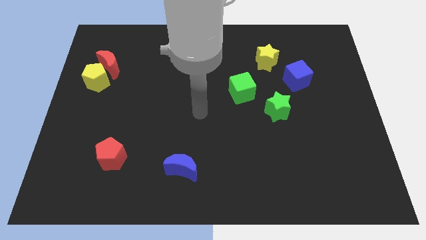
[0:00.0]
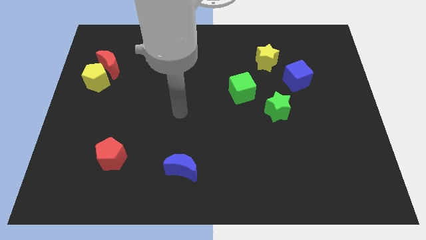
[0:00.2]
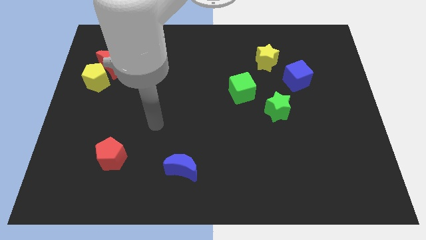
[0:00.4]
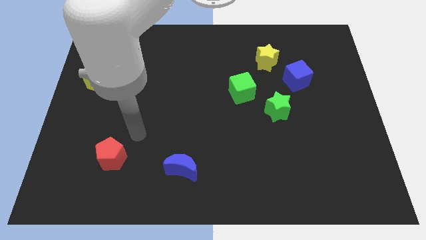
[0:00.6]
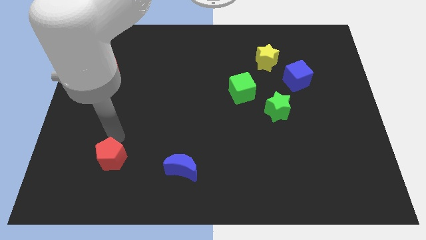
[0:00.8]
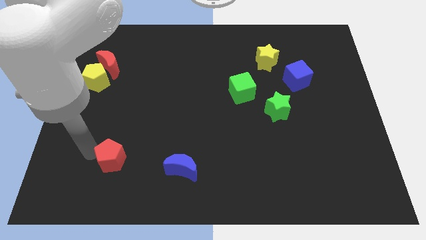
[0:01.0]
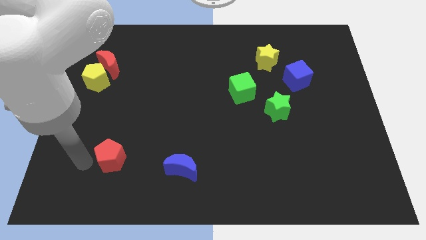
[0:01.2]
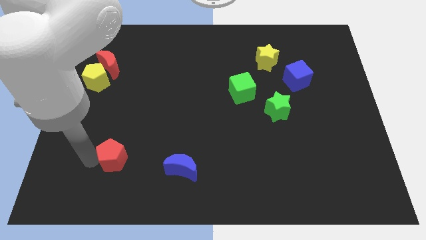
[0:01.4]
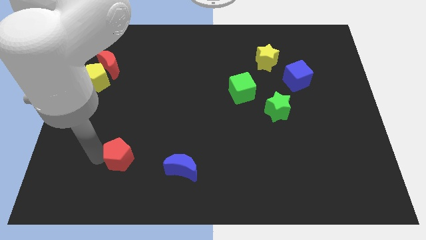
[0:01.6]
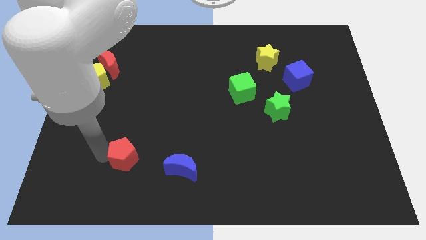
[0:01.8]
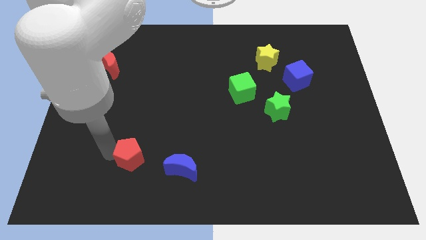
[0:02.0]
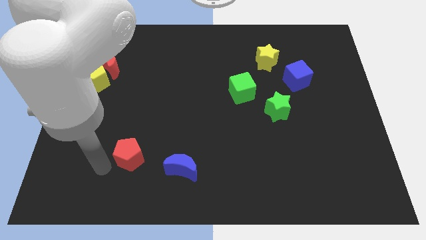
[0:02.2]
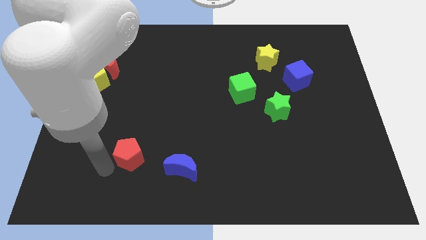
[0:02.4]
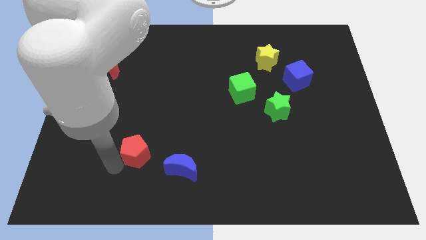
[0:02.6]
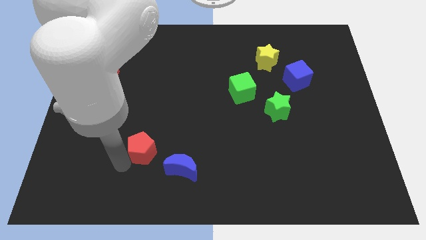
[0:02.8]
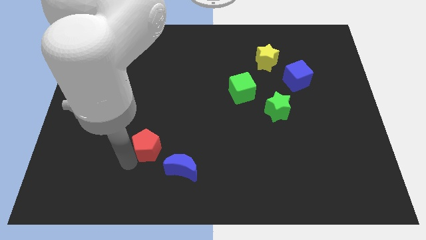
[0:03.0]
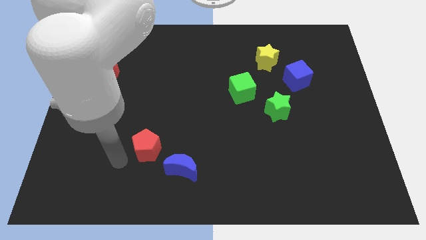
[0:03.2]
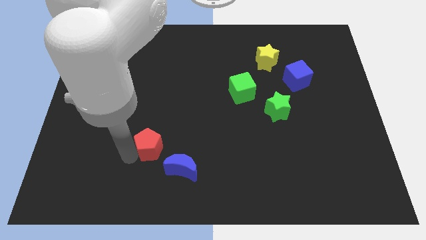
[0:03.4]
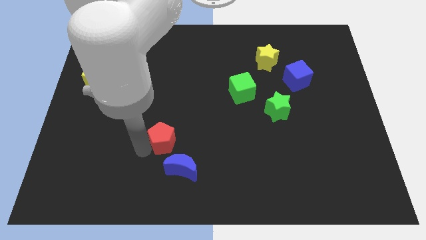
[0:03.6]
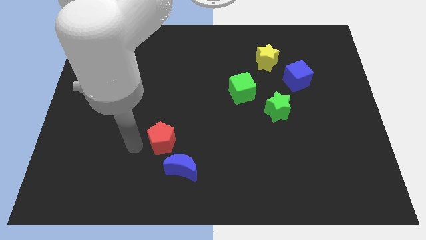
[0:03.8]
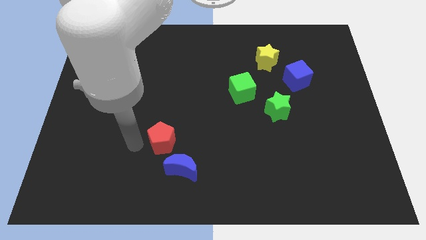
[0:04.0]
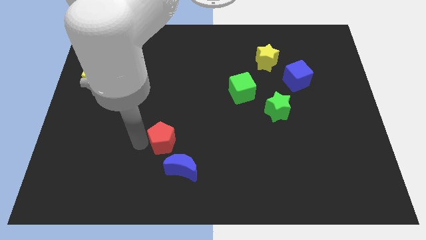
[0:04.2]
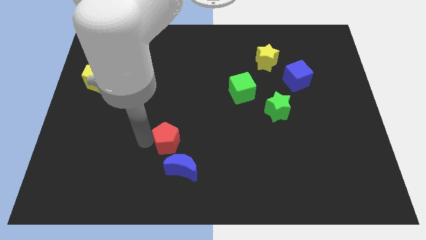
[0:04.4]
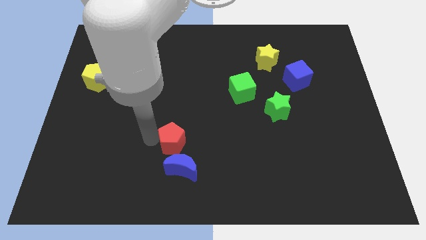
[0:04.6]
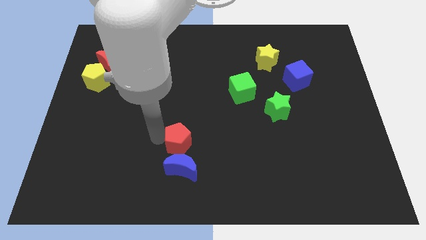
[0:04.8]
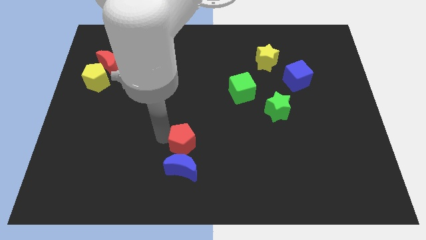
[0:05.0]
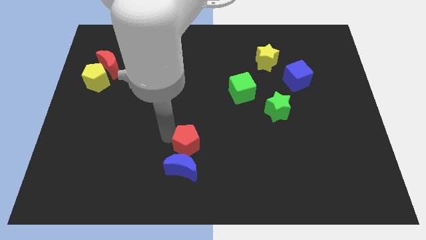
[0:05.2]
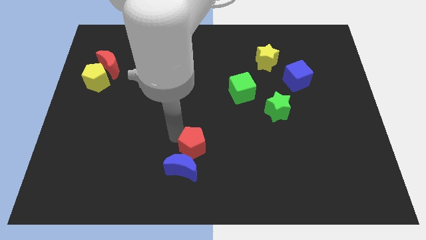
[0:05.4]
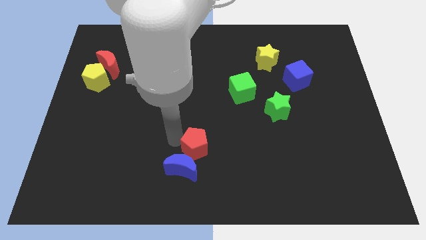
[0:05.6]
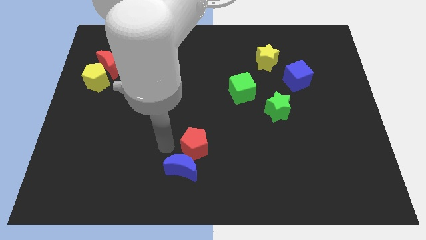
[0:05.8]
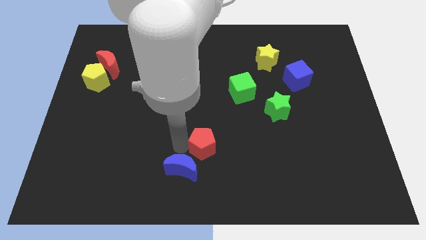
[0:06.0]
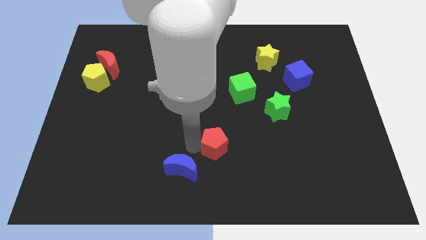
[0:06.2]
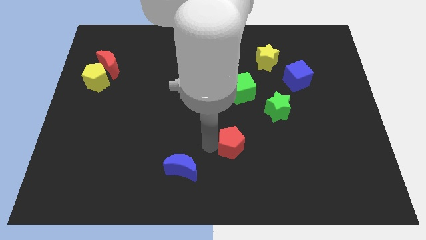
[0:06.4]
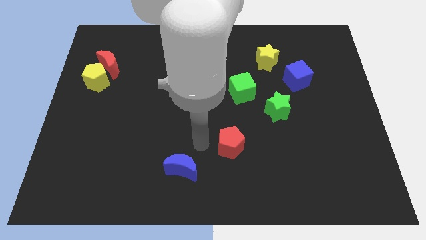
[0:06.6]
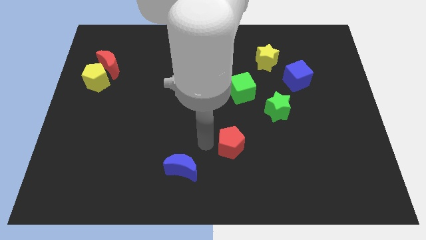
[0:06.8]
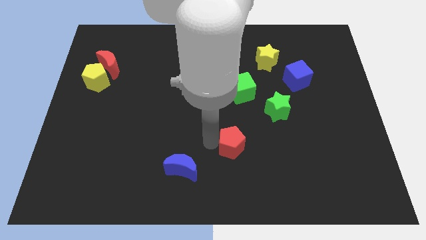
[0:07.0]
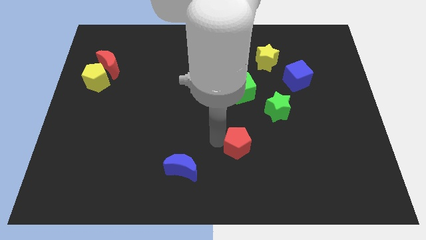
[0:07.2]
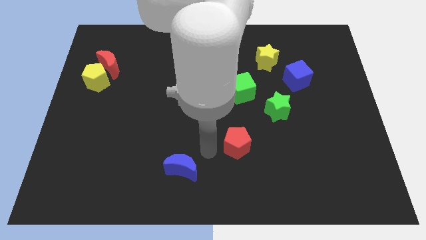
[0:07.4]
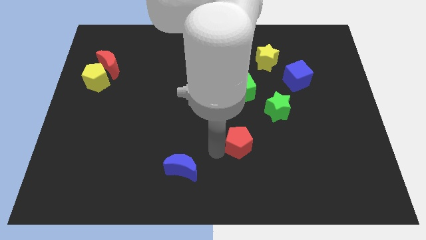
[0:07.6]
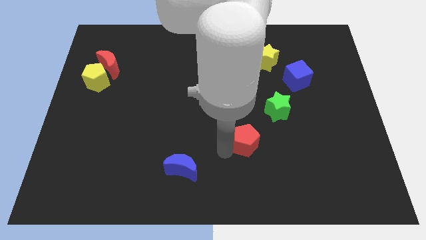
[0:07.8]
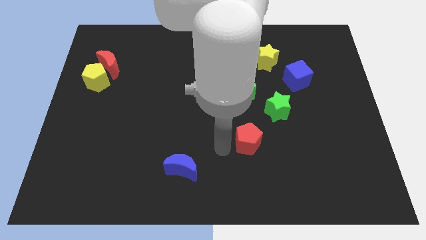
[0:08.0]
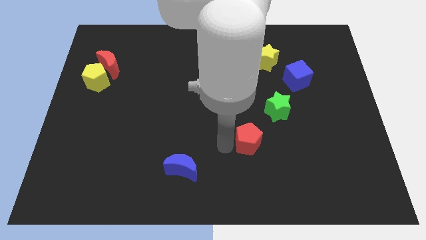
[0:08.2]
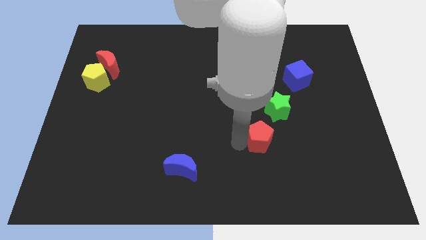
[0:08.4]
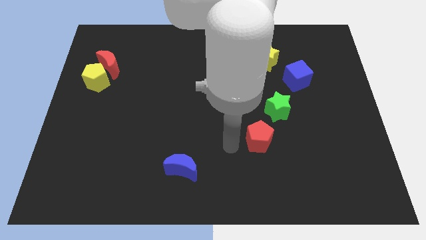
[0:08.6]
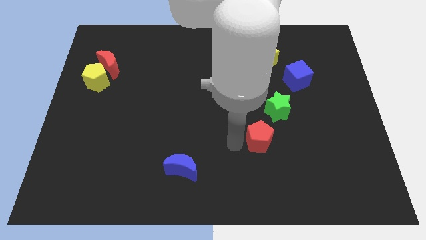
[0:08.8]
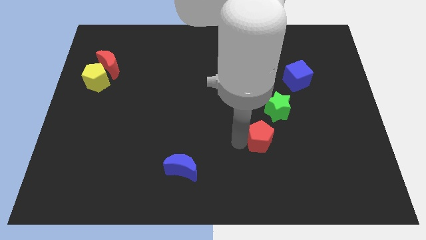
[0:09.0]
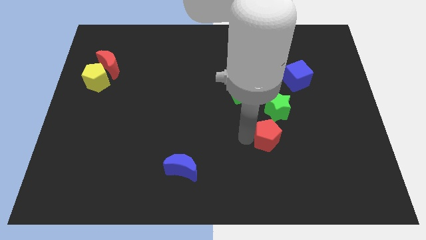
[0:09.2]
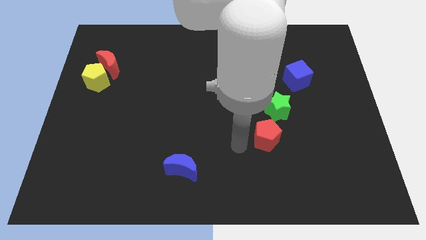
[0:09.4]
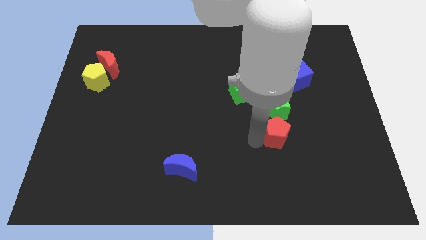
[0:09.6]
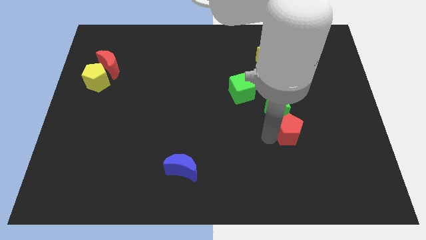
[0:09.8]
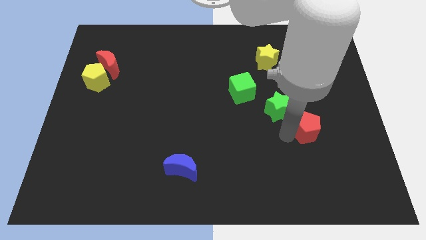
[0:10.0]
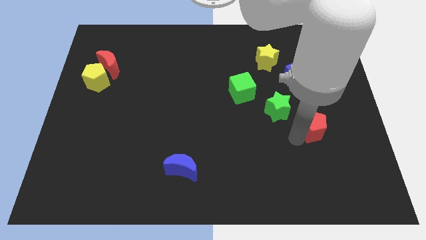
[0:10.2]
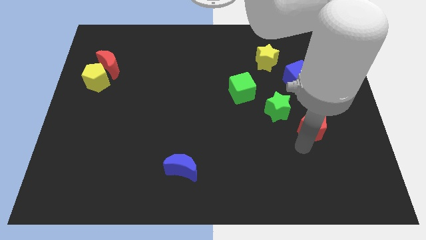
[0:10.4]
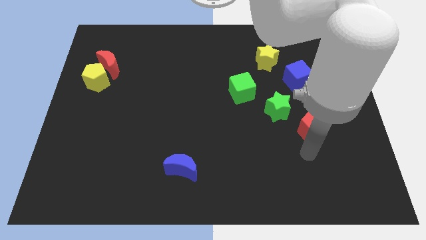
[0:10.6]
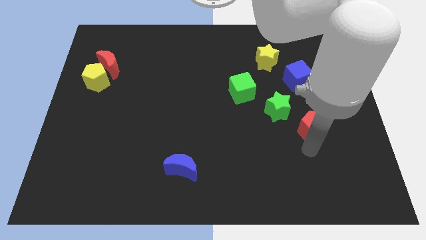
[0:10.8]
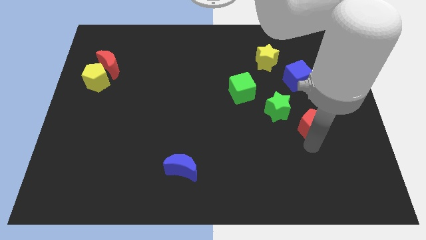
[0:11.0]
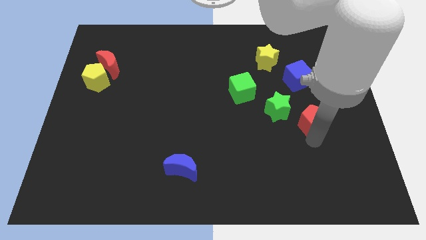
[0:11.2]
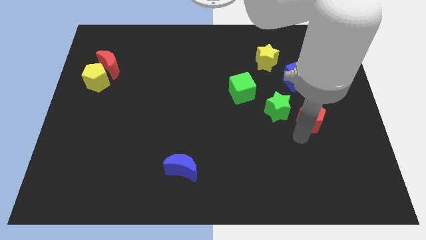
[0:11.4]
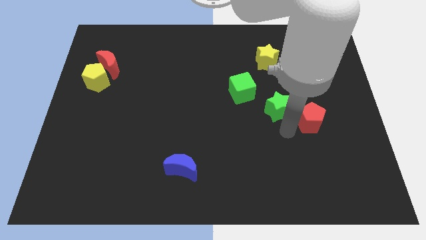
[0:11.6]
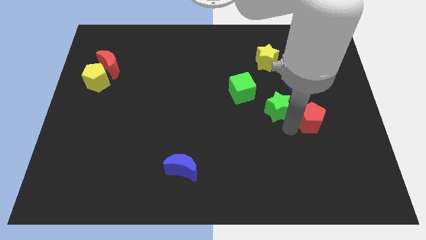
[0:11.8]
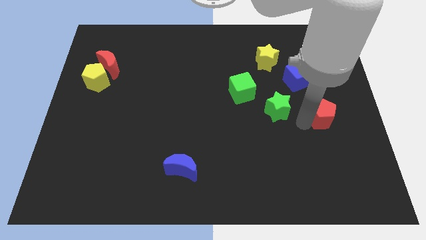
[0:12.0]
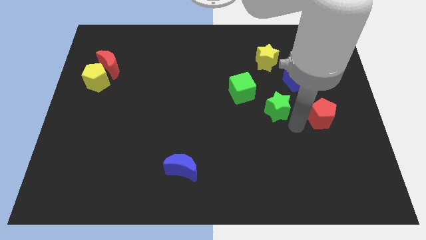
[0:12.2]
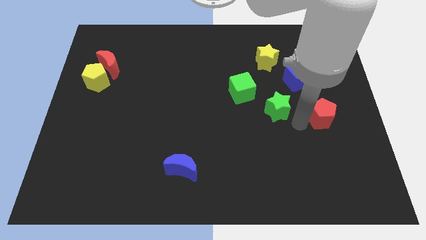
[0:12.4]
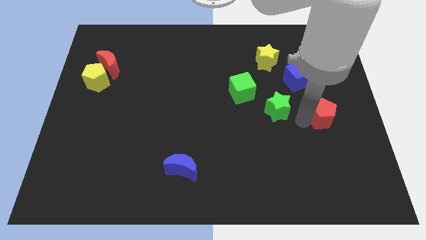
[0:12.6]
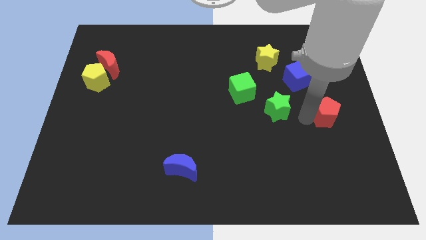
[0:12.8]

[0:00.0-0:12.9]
put the red pentagon to the right side of the board

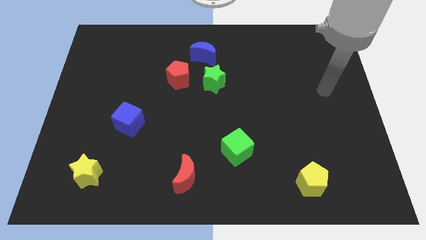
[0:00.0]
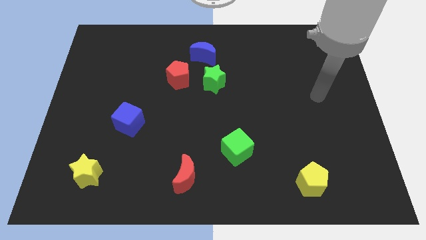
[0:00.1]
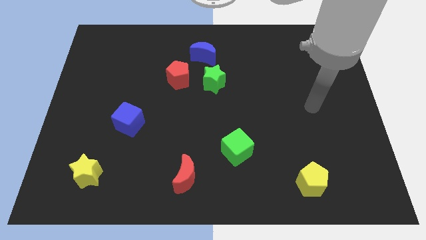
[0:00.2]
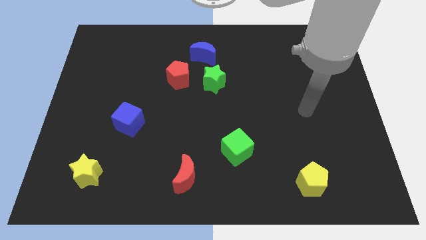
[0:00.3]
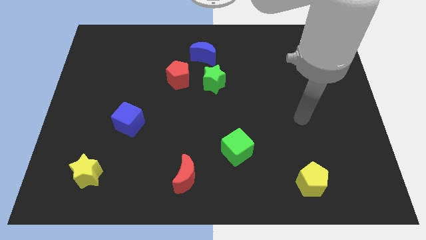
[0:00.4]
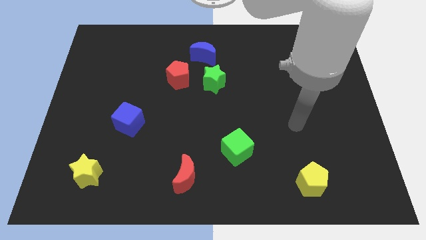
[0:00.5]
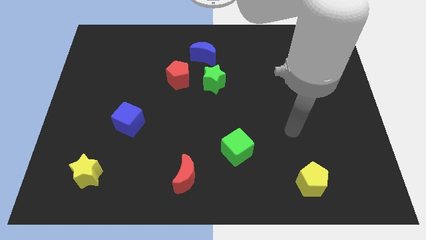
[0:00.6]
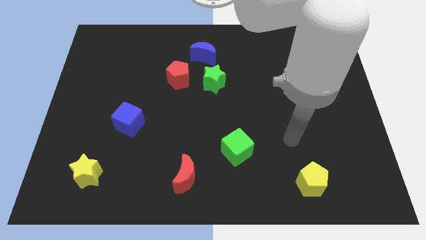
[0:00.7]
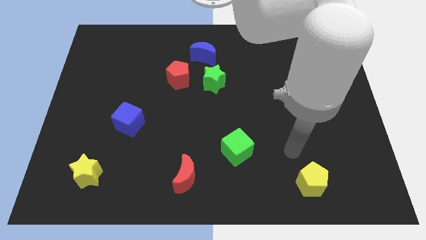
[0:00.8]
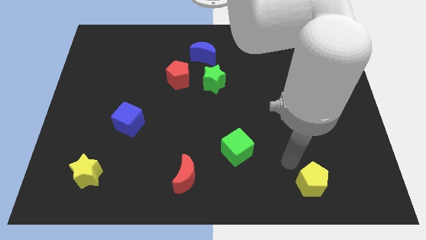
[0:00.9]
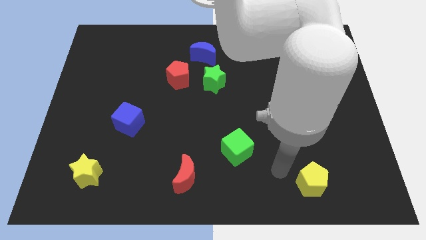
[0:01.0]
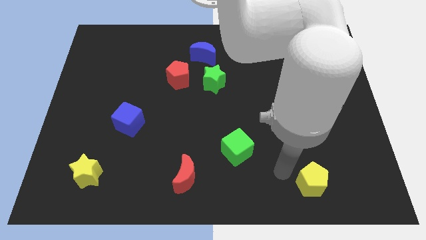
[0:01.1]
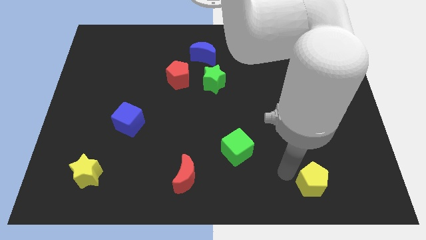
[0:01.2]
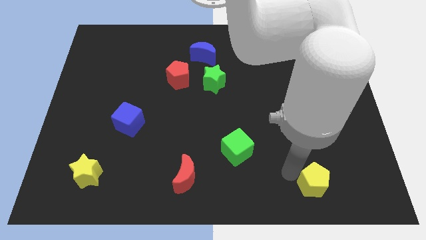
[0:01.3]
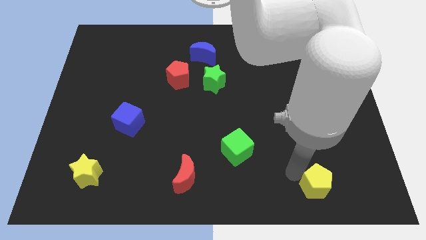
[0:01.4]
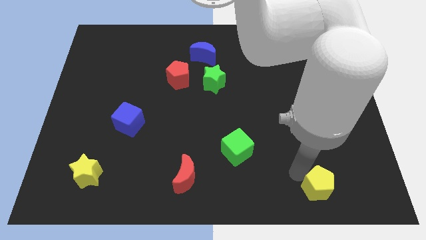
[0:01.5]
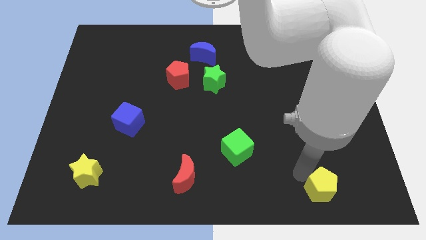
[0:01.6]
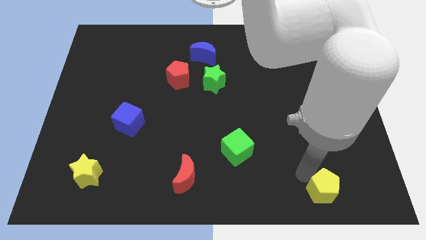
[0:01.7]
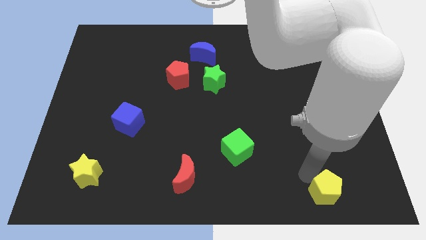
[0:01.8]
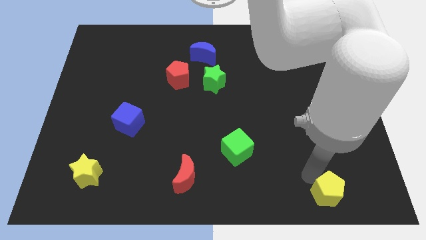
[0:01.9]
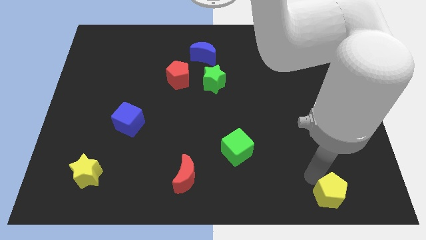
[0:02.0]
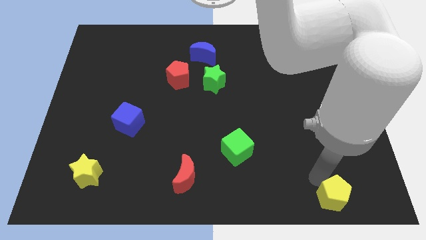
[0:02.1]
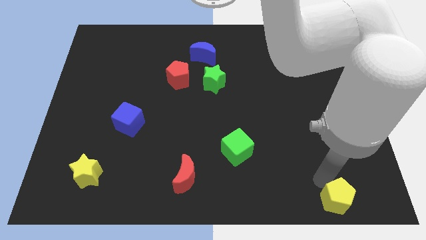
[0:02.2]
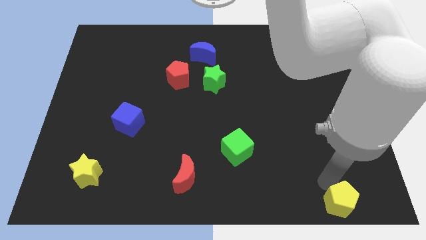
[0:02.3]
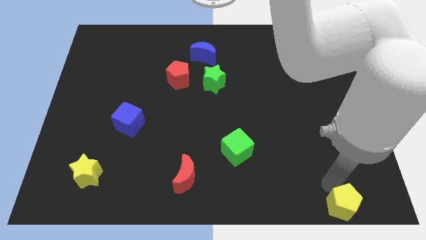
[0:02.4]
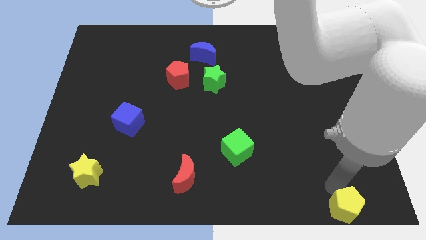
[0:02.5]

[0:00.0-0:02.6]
put the yellow pentagon to the bottom right of the board
